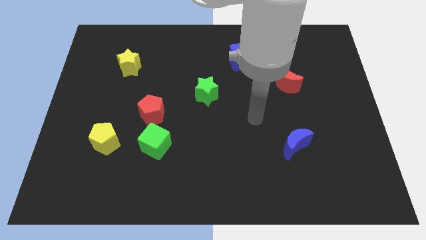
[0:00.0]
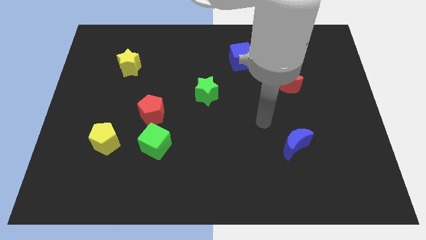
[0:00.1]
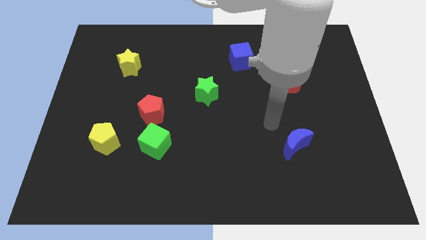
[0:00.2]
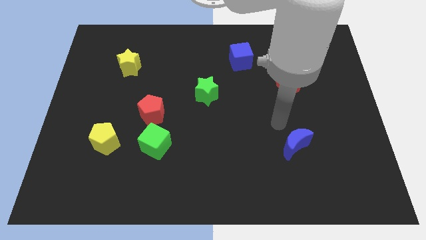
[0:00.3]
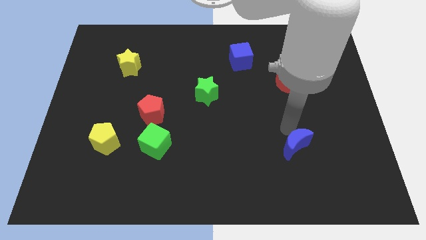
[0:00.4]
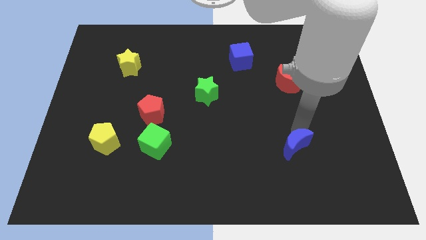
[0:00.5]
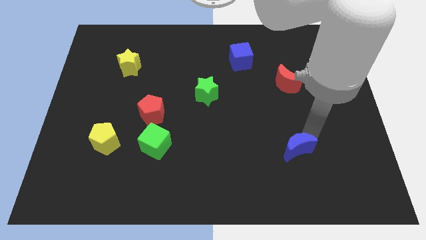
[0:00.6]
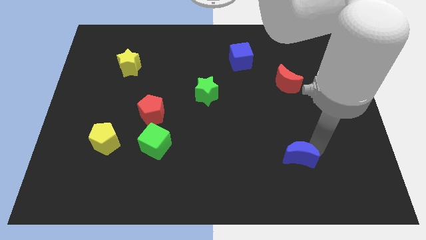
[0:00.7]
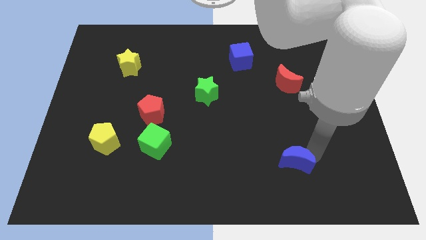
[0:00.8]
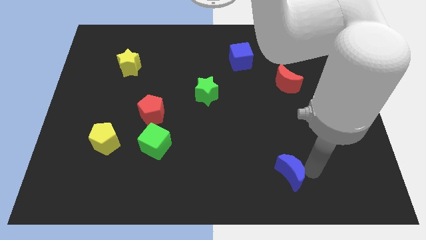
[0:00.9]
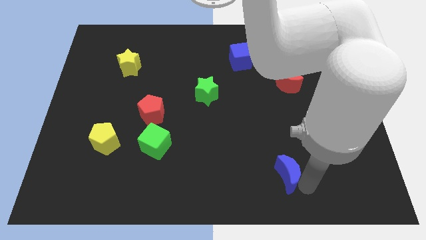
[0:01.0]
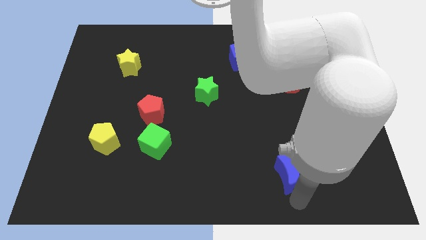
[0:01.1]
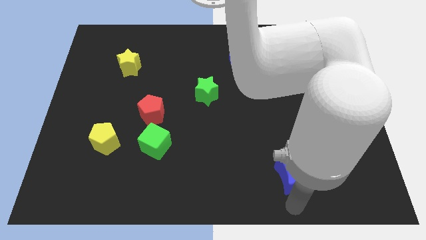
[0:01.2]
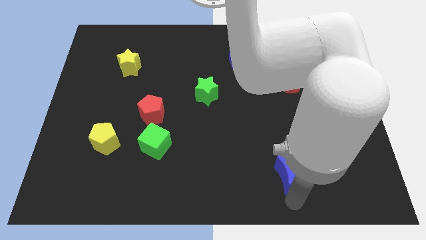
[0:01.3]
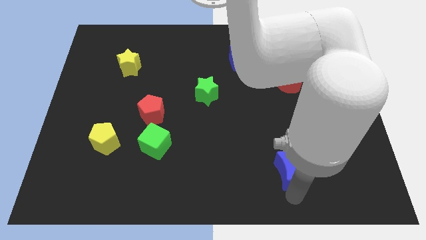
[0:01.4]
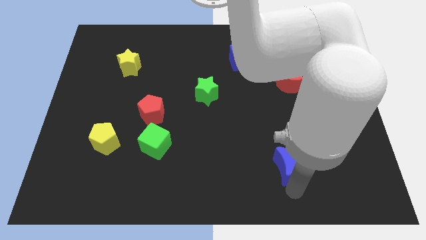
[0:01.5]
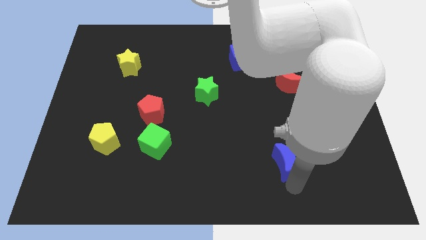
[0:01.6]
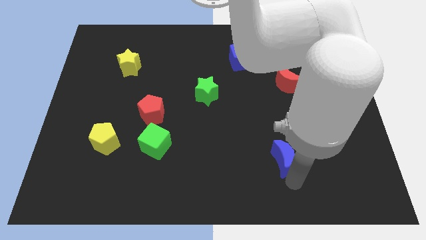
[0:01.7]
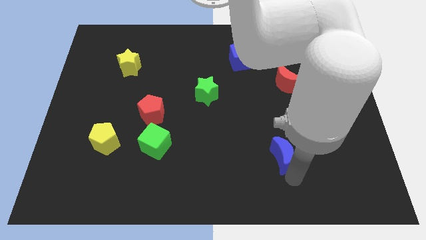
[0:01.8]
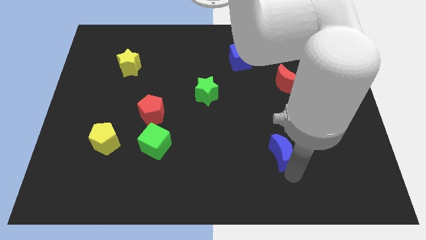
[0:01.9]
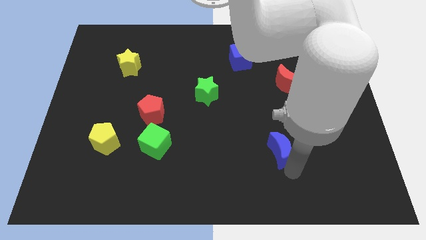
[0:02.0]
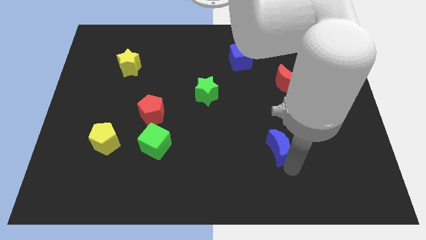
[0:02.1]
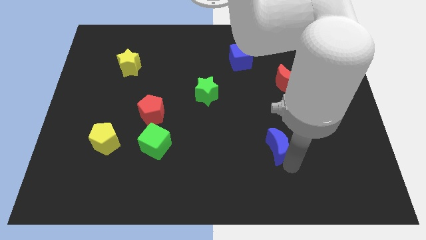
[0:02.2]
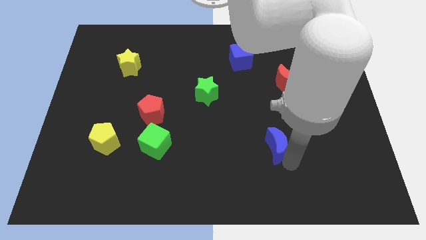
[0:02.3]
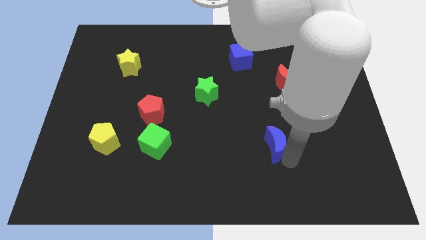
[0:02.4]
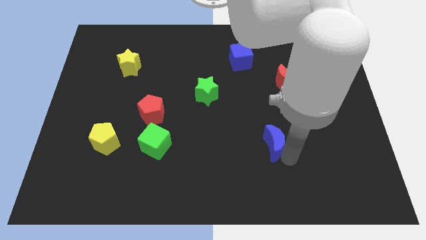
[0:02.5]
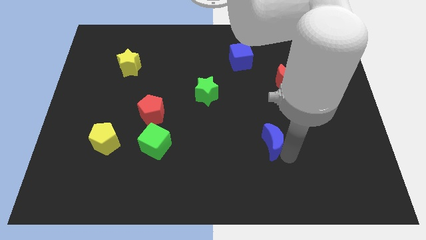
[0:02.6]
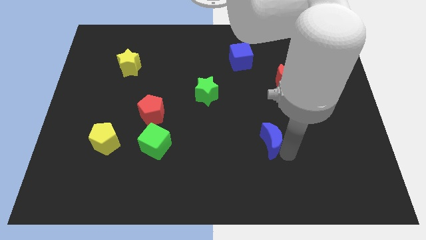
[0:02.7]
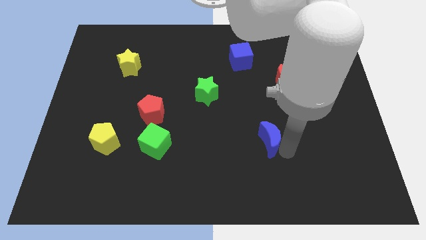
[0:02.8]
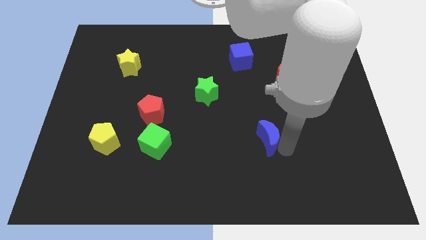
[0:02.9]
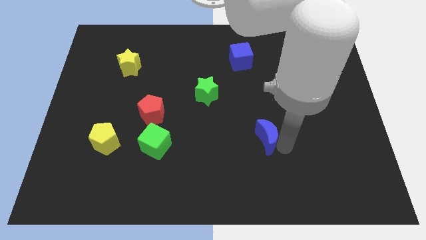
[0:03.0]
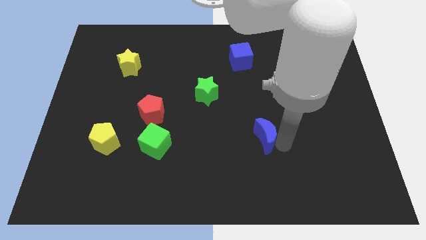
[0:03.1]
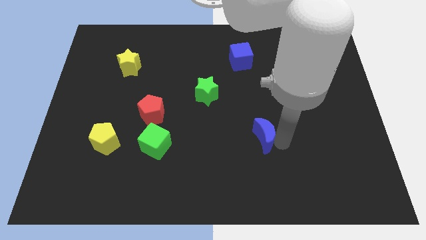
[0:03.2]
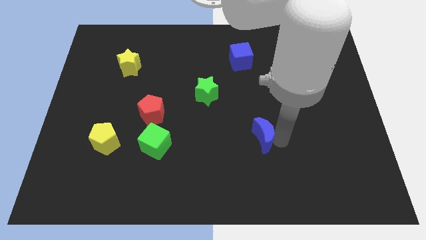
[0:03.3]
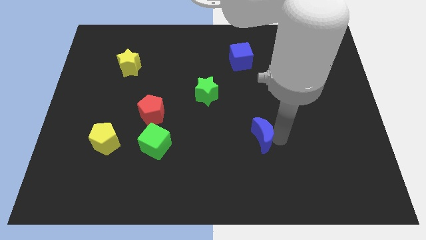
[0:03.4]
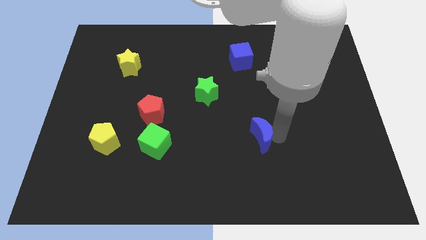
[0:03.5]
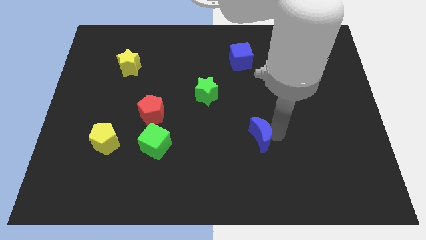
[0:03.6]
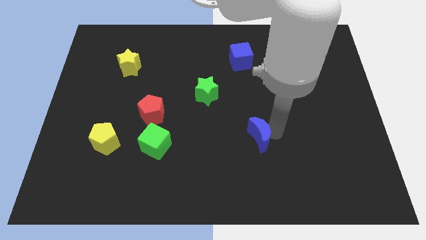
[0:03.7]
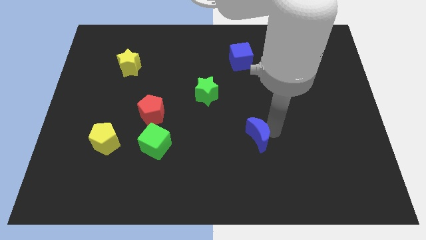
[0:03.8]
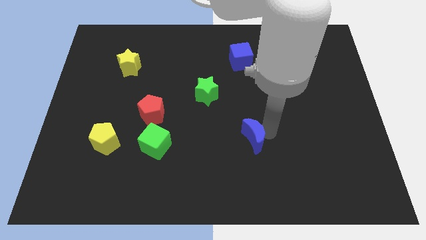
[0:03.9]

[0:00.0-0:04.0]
slightly push the blue moon up and to the left

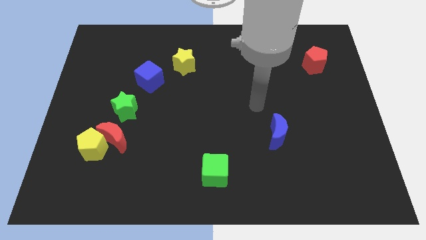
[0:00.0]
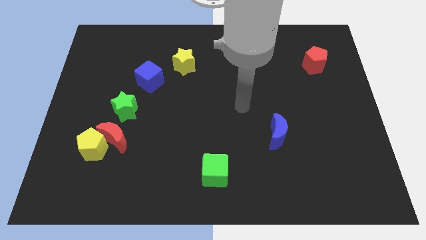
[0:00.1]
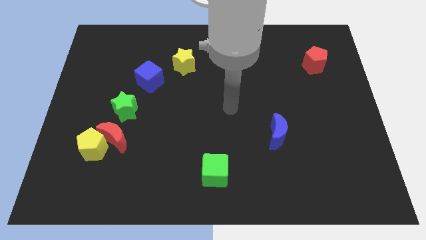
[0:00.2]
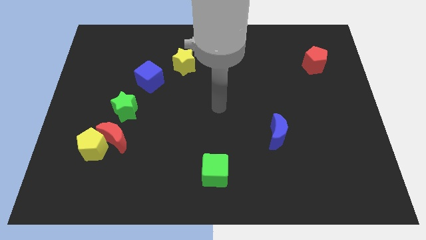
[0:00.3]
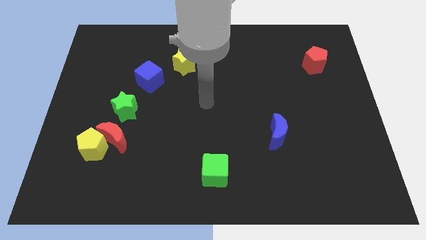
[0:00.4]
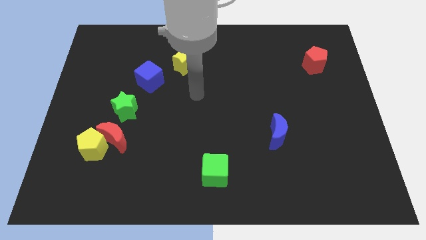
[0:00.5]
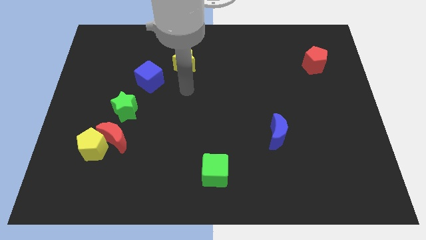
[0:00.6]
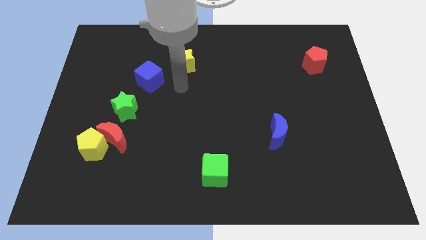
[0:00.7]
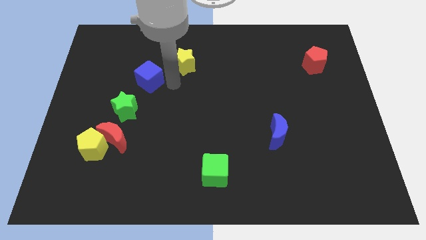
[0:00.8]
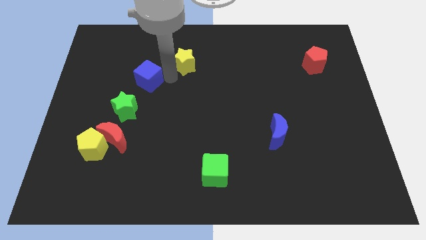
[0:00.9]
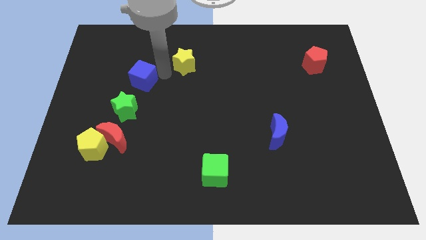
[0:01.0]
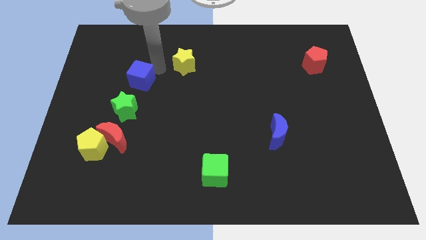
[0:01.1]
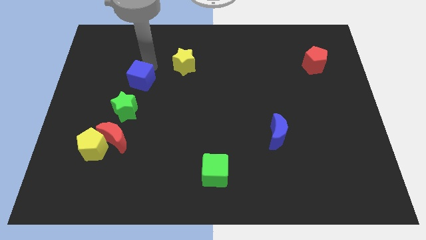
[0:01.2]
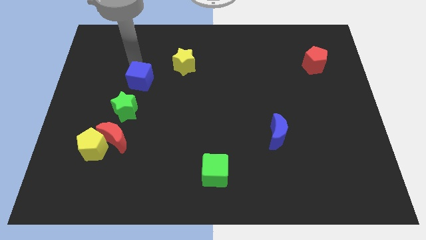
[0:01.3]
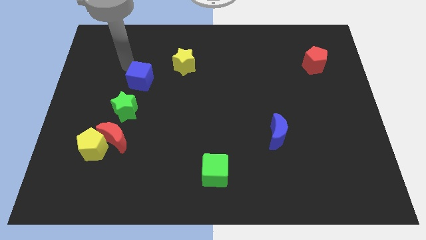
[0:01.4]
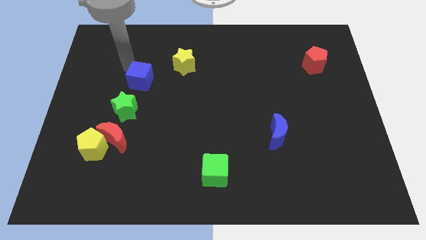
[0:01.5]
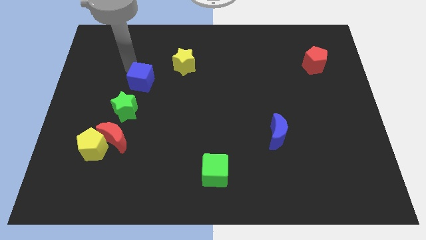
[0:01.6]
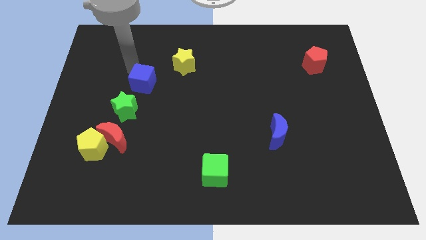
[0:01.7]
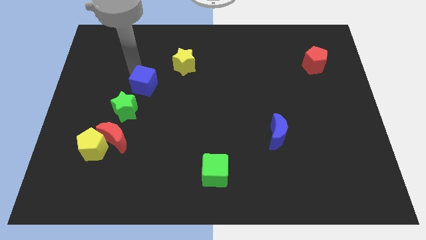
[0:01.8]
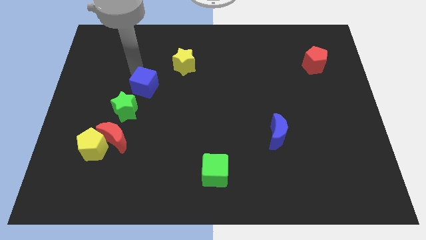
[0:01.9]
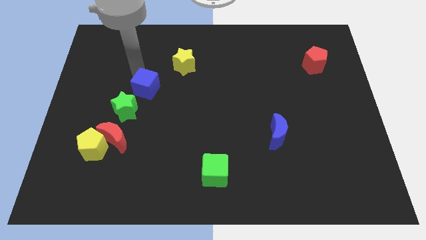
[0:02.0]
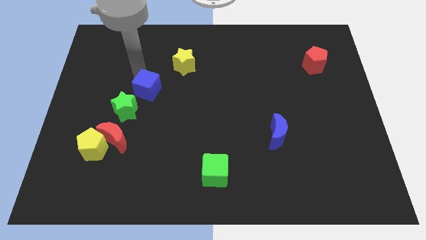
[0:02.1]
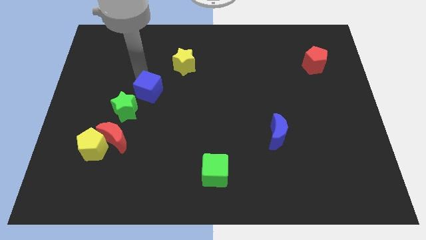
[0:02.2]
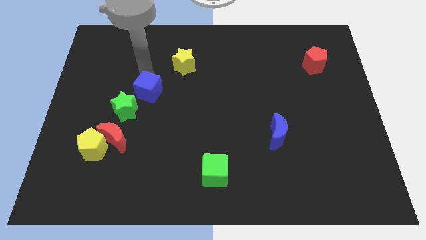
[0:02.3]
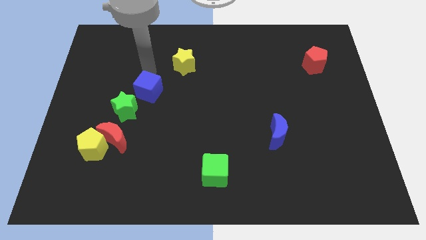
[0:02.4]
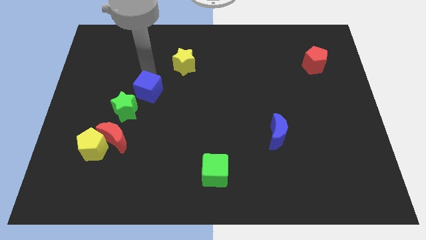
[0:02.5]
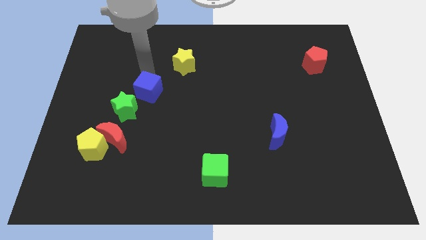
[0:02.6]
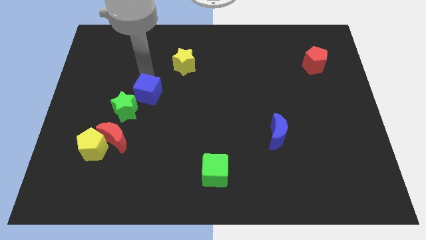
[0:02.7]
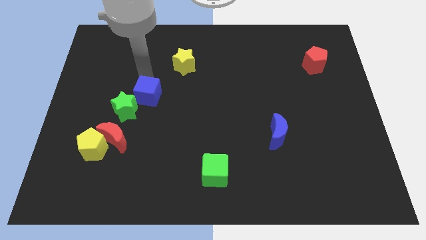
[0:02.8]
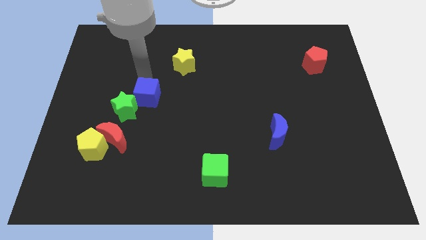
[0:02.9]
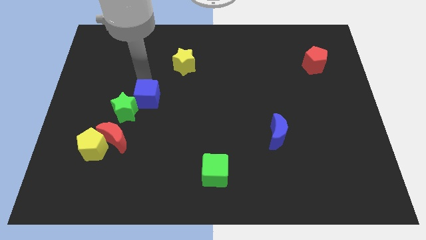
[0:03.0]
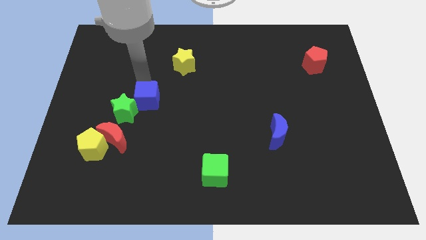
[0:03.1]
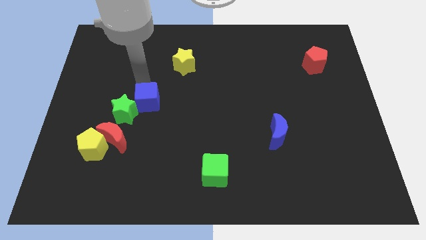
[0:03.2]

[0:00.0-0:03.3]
slightly move the blue cube downwards

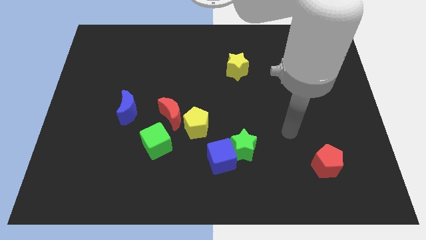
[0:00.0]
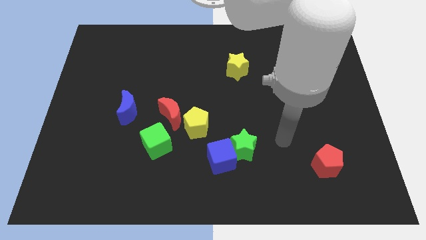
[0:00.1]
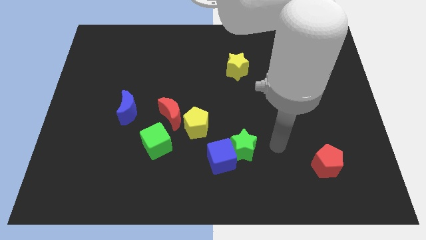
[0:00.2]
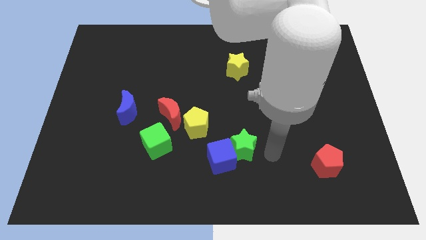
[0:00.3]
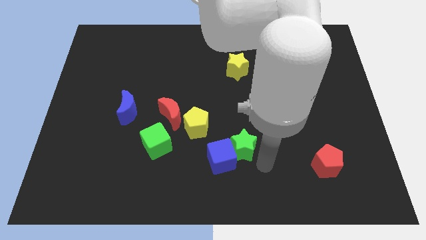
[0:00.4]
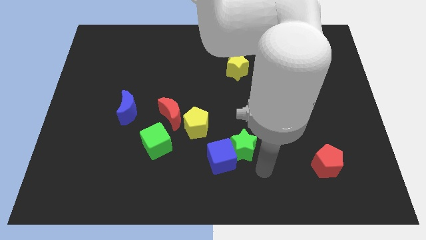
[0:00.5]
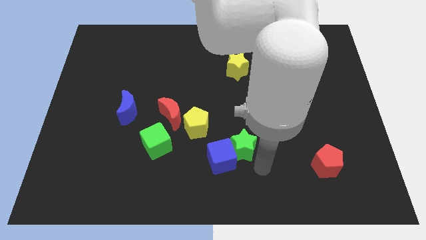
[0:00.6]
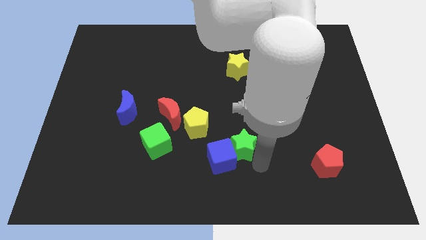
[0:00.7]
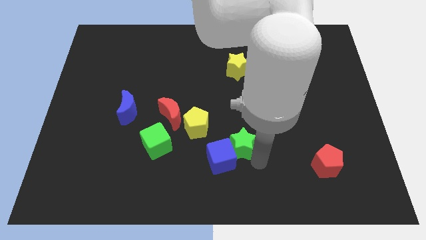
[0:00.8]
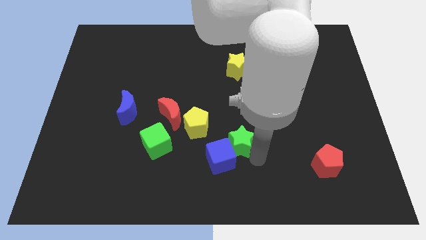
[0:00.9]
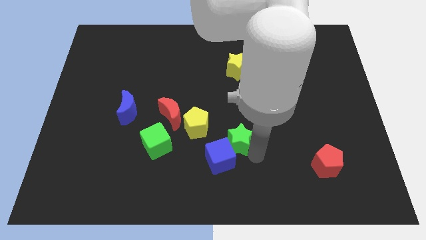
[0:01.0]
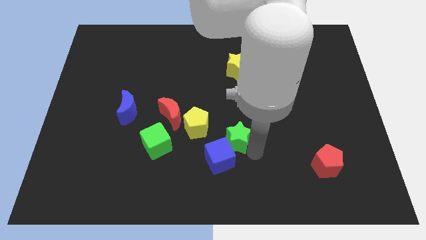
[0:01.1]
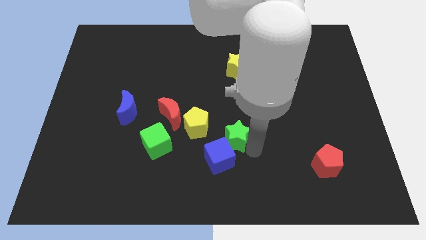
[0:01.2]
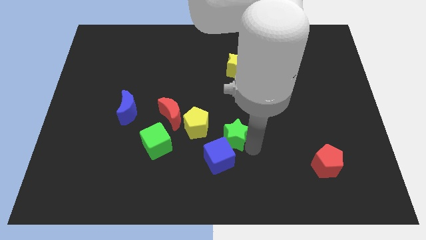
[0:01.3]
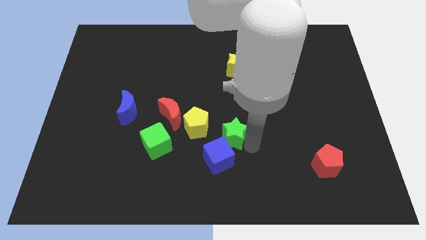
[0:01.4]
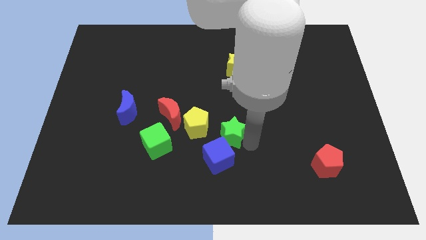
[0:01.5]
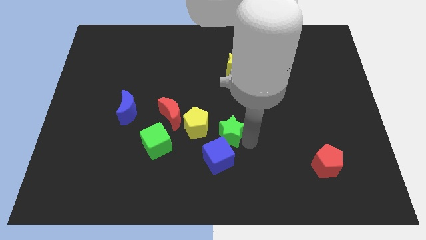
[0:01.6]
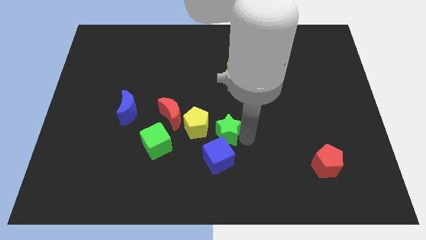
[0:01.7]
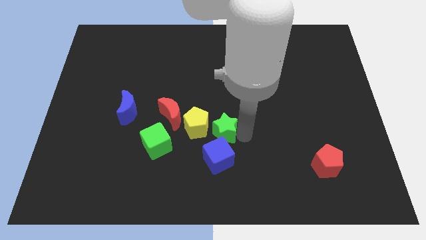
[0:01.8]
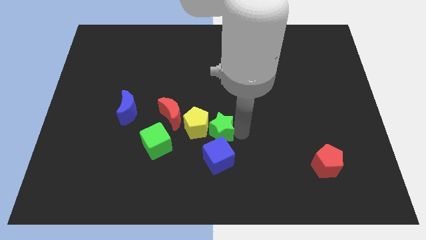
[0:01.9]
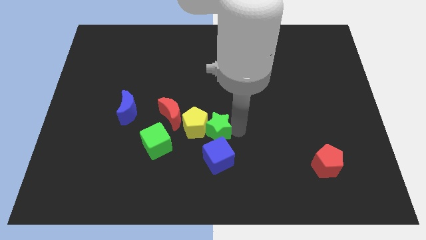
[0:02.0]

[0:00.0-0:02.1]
move the green star upwards and left diagonally a bit
